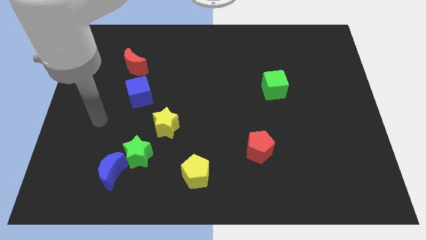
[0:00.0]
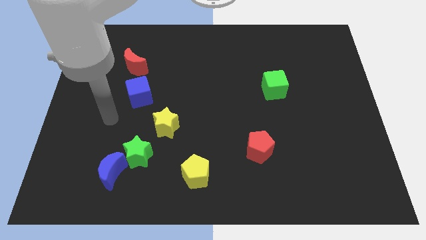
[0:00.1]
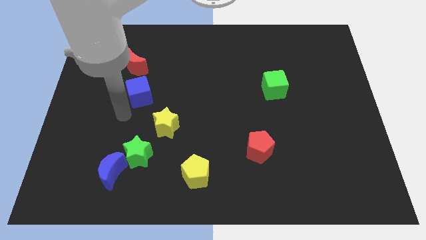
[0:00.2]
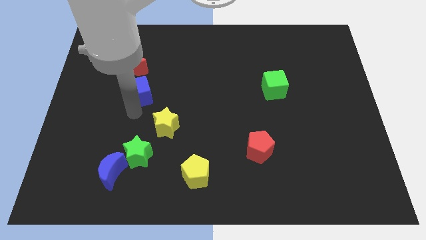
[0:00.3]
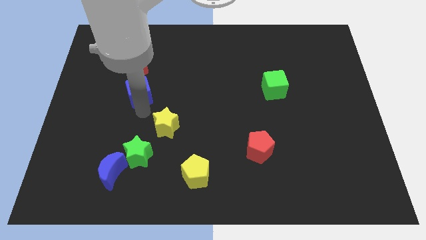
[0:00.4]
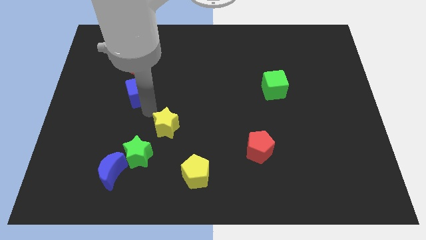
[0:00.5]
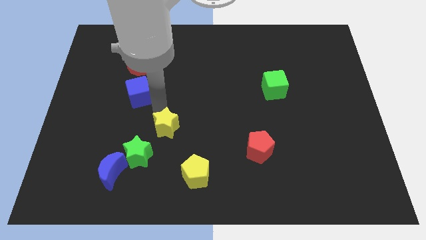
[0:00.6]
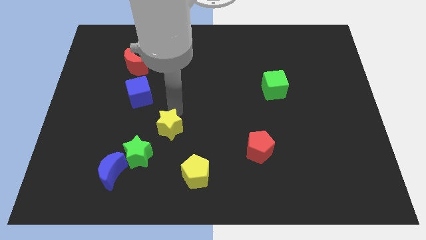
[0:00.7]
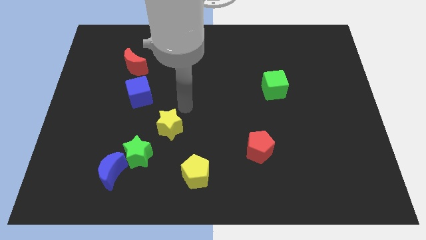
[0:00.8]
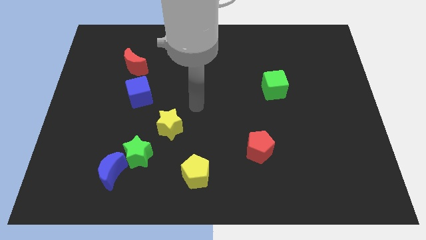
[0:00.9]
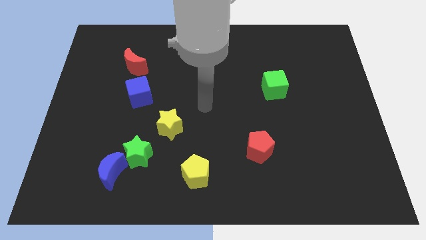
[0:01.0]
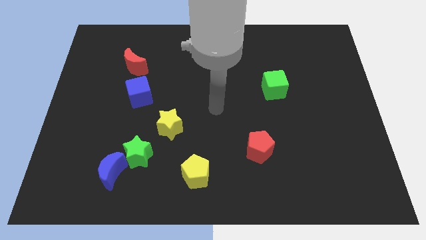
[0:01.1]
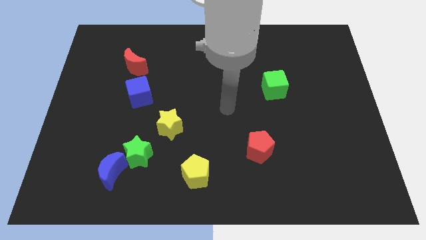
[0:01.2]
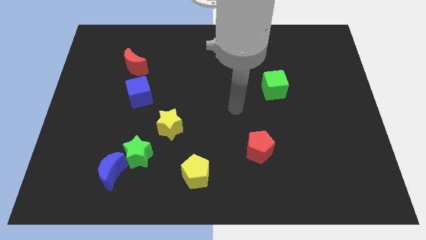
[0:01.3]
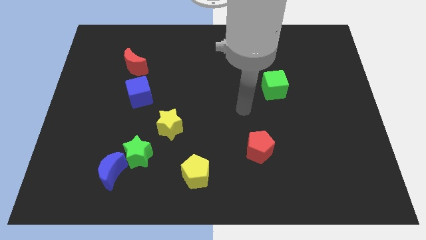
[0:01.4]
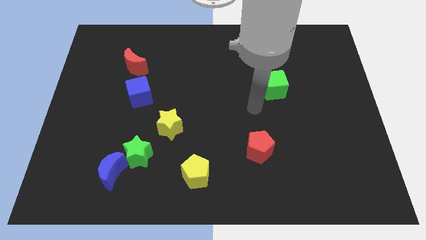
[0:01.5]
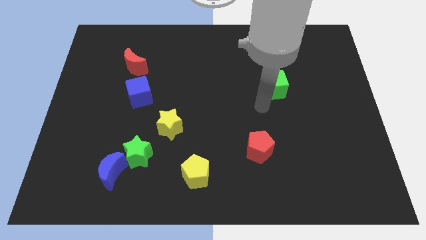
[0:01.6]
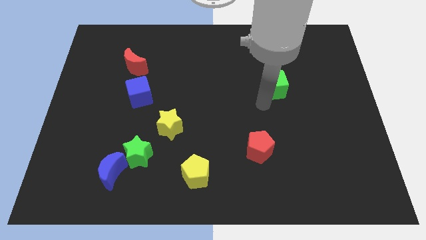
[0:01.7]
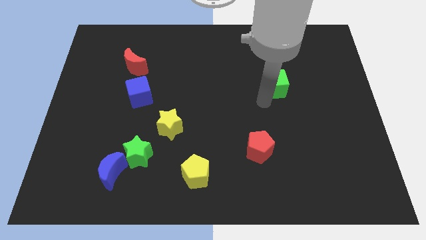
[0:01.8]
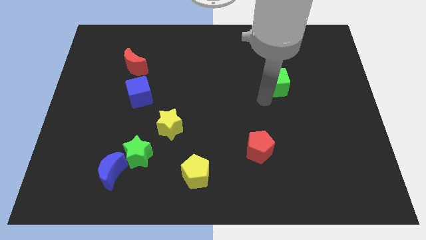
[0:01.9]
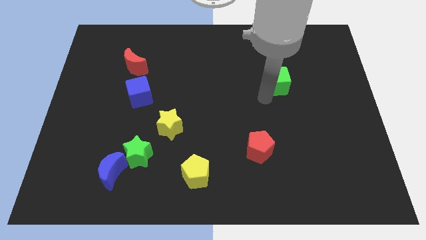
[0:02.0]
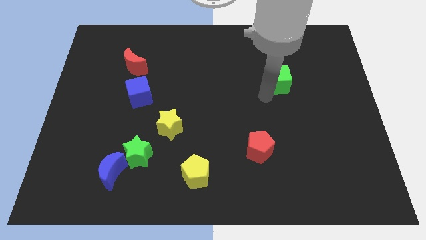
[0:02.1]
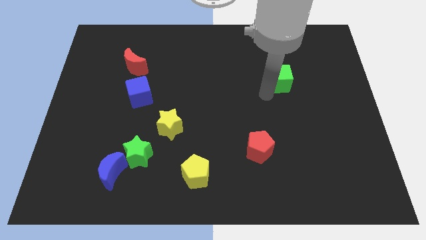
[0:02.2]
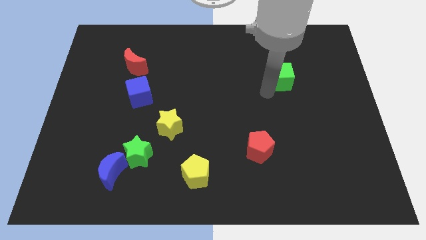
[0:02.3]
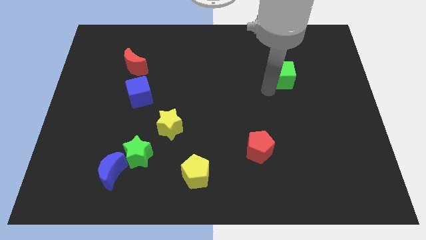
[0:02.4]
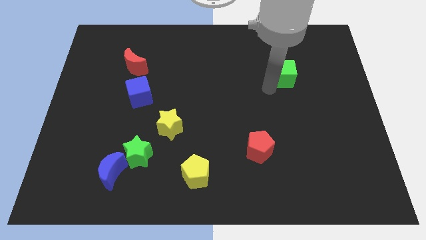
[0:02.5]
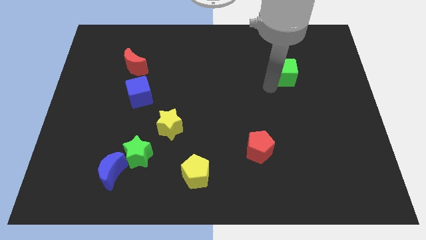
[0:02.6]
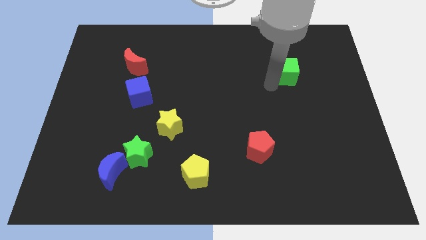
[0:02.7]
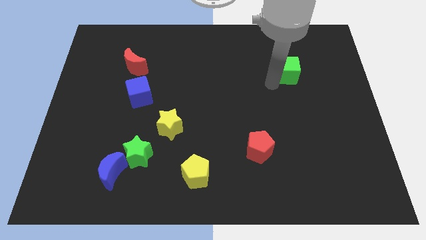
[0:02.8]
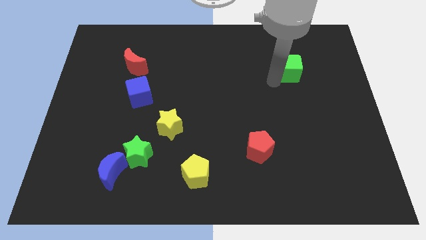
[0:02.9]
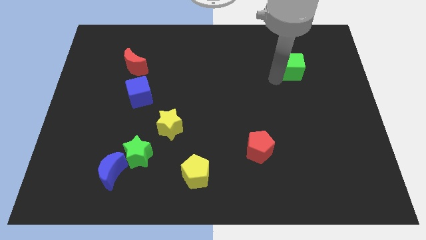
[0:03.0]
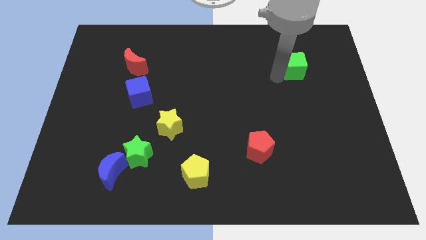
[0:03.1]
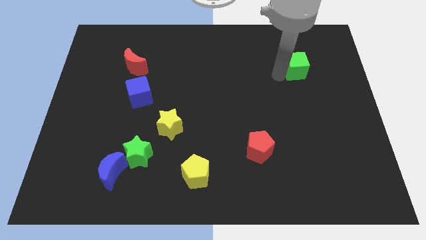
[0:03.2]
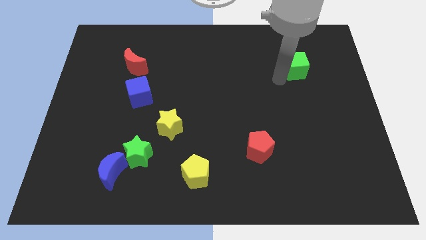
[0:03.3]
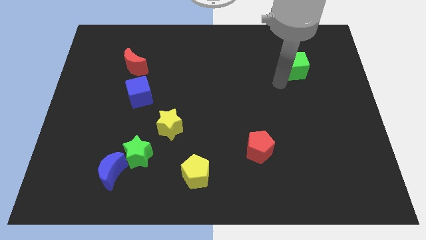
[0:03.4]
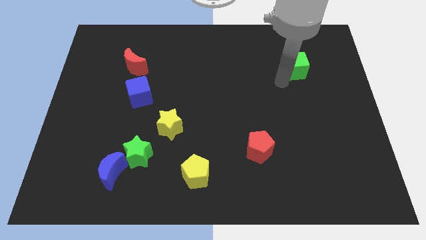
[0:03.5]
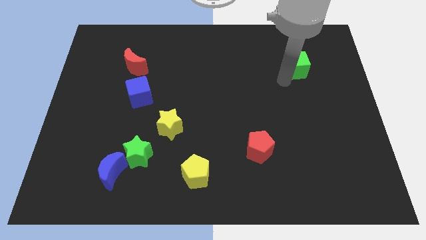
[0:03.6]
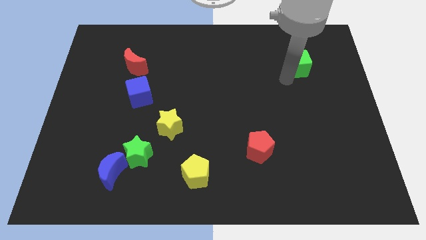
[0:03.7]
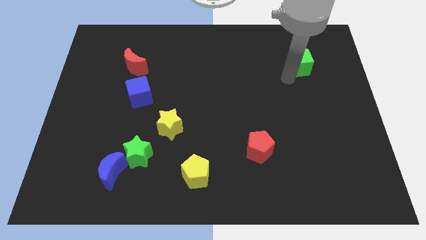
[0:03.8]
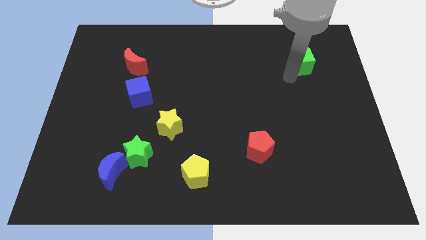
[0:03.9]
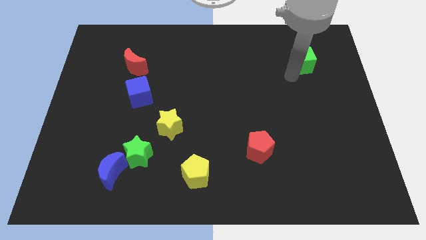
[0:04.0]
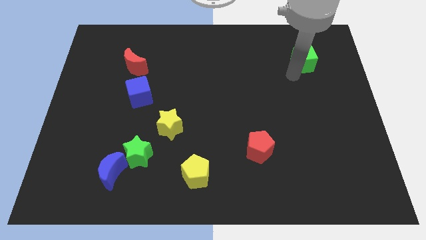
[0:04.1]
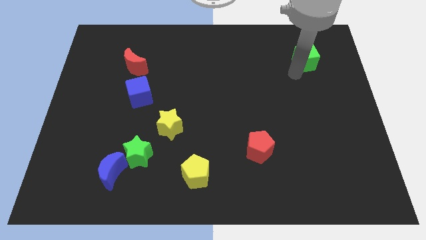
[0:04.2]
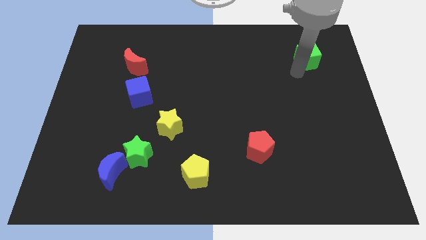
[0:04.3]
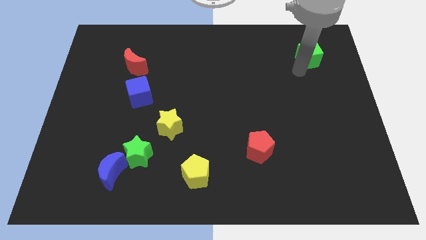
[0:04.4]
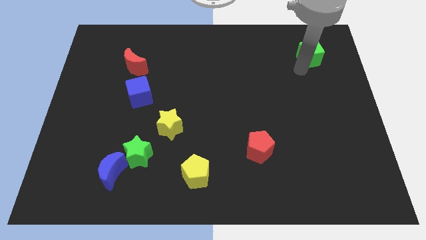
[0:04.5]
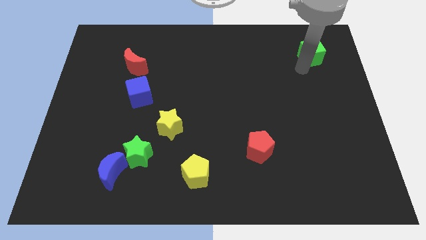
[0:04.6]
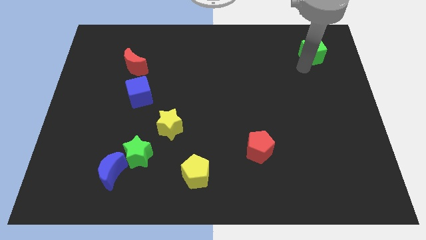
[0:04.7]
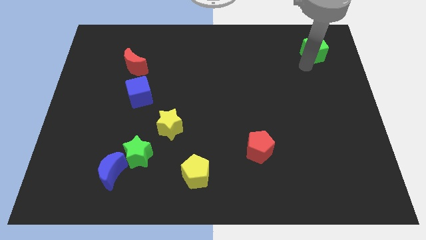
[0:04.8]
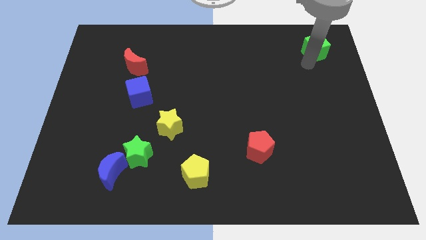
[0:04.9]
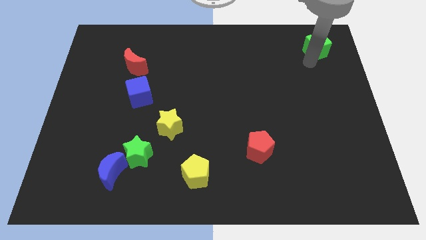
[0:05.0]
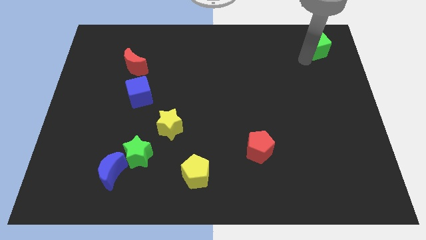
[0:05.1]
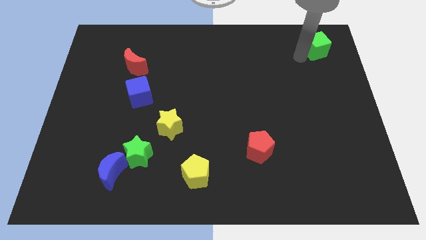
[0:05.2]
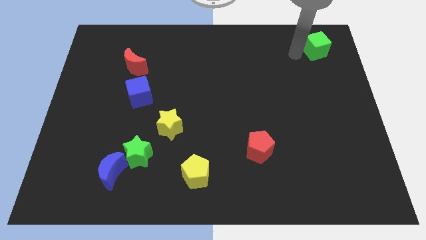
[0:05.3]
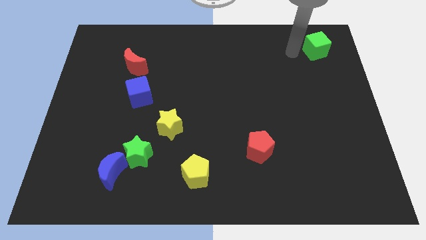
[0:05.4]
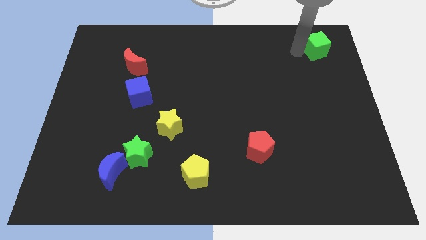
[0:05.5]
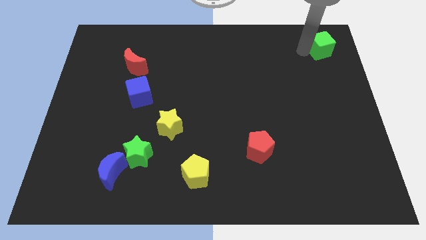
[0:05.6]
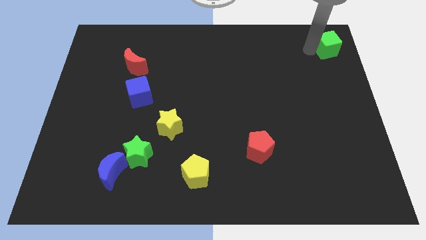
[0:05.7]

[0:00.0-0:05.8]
move the green cube to the upper right corner

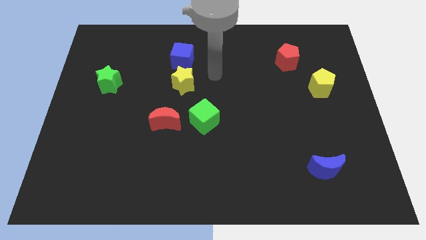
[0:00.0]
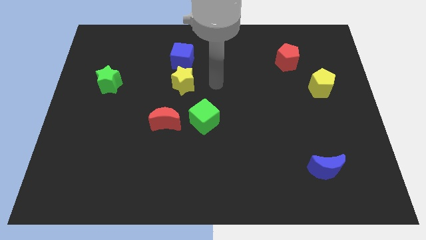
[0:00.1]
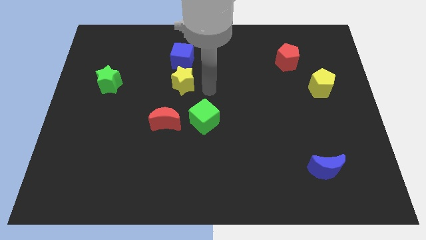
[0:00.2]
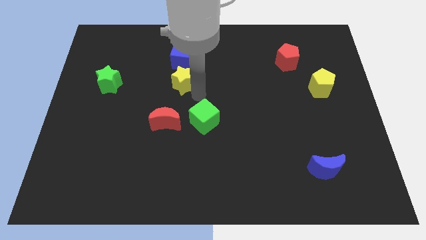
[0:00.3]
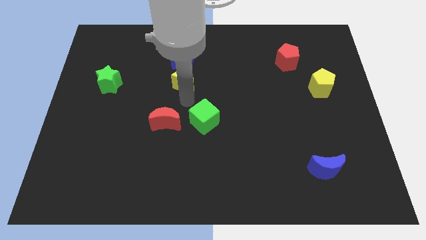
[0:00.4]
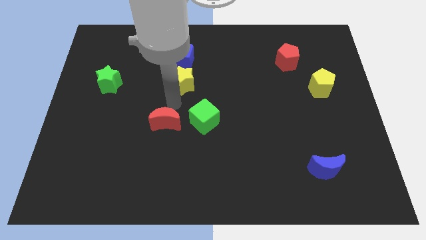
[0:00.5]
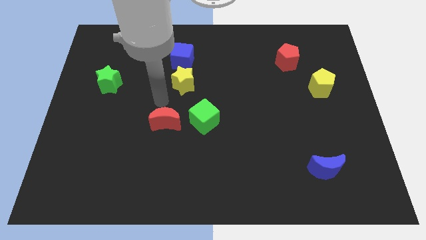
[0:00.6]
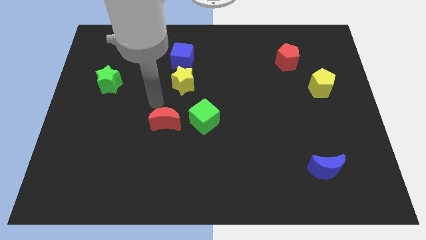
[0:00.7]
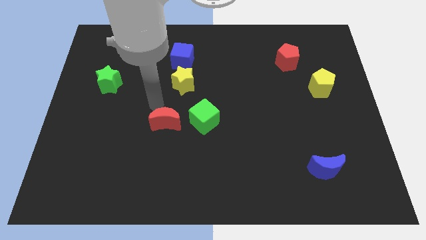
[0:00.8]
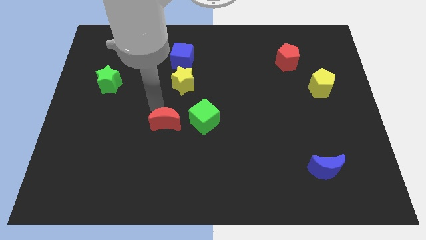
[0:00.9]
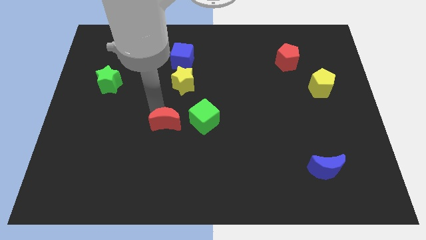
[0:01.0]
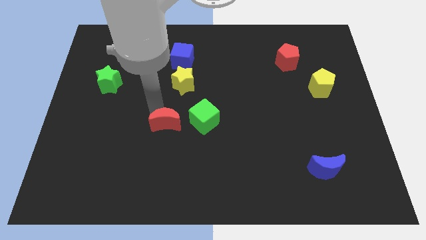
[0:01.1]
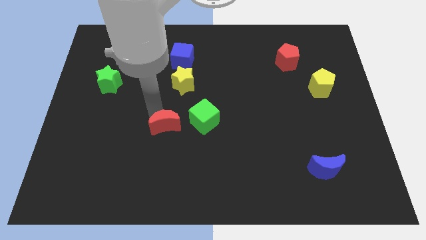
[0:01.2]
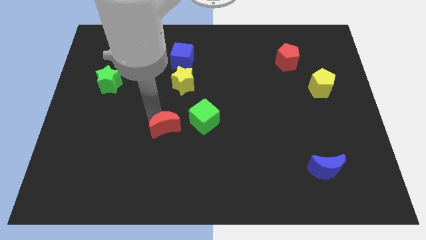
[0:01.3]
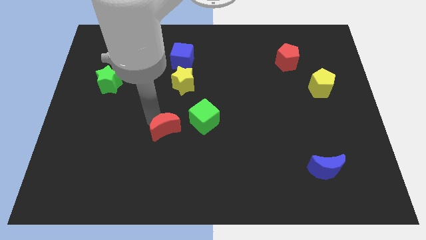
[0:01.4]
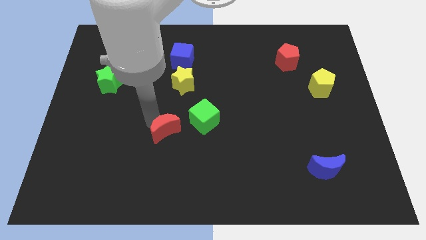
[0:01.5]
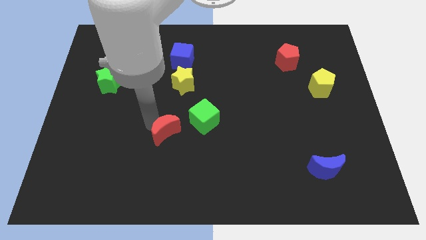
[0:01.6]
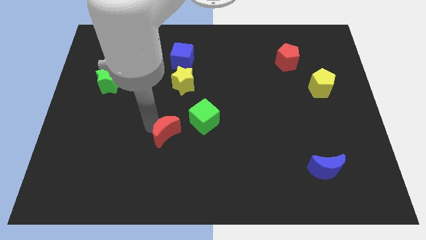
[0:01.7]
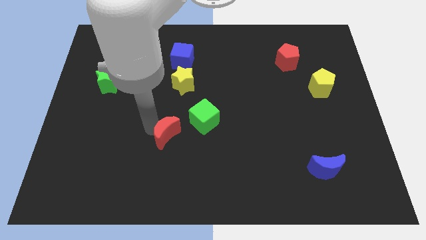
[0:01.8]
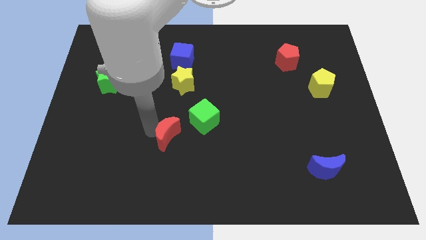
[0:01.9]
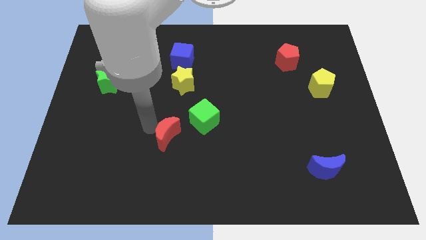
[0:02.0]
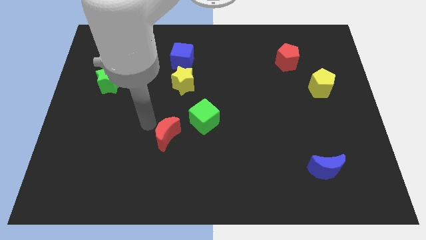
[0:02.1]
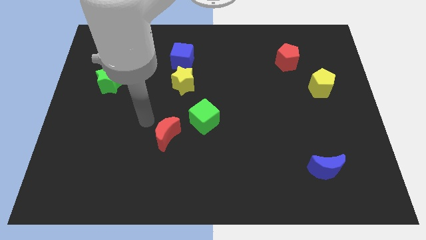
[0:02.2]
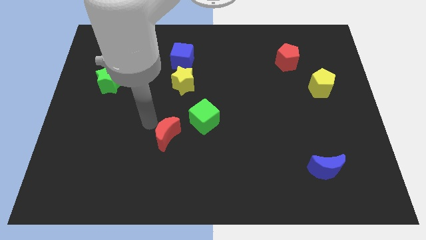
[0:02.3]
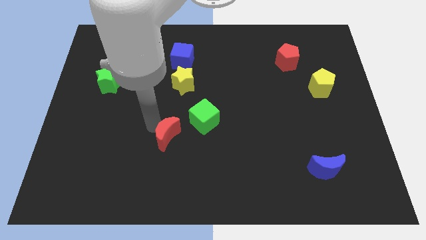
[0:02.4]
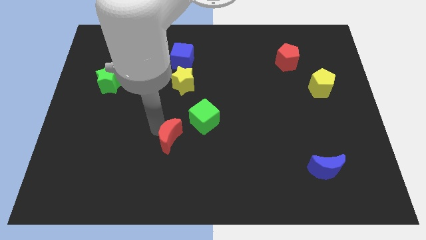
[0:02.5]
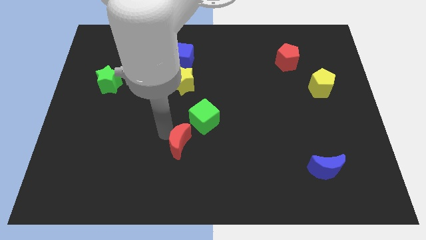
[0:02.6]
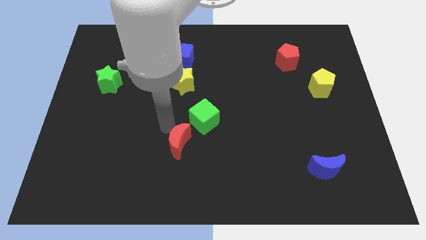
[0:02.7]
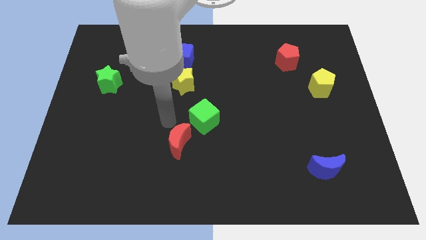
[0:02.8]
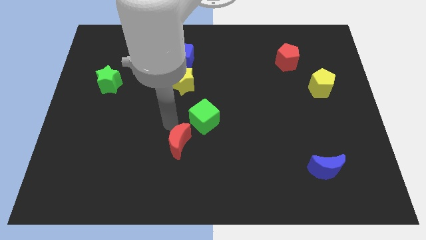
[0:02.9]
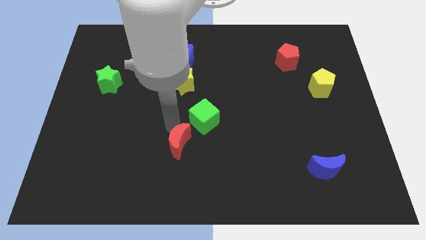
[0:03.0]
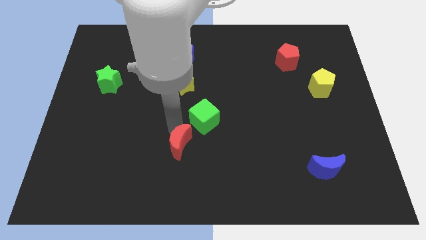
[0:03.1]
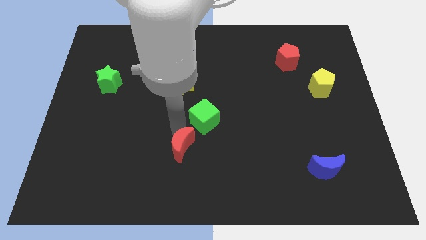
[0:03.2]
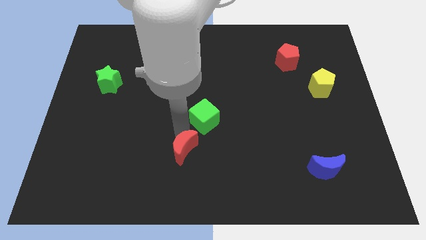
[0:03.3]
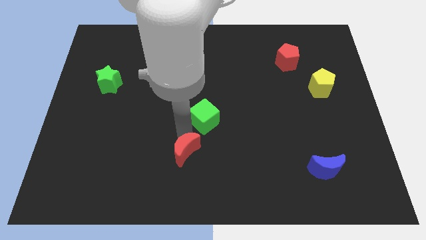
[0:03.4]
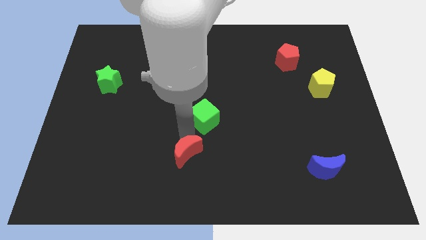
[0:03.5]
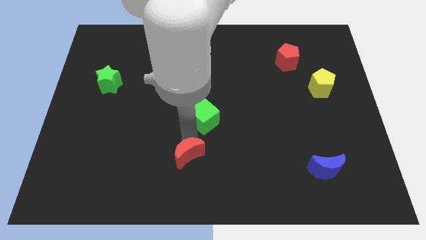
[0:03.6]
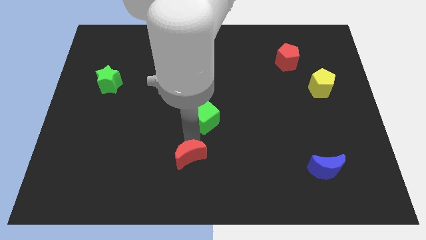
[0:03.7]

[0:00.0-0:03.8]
push the red moon to the bottom
